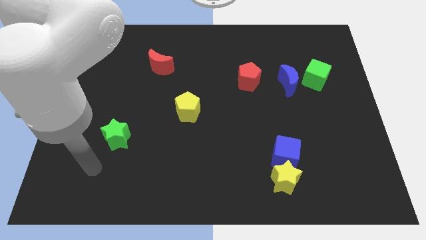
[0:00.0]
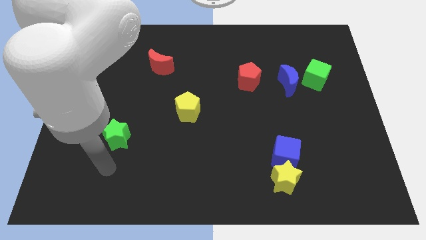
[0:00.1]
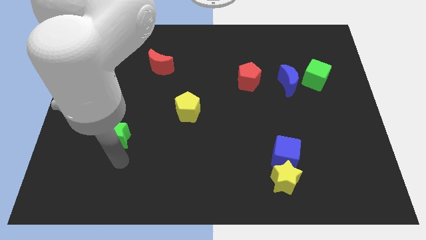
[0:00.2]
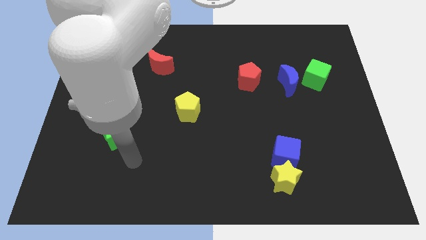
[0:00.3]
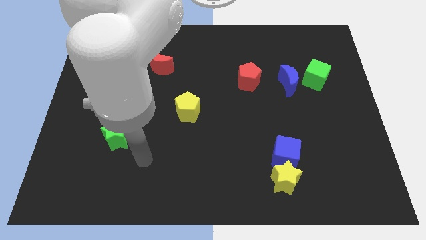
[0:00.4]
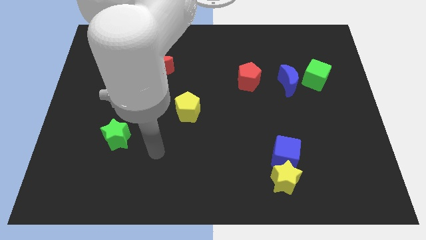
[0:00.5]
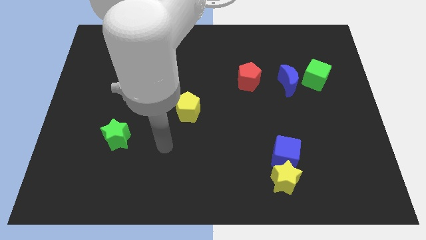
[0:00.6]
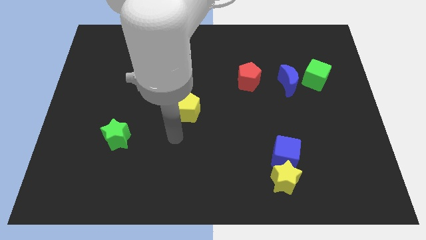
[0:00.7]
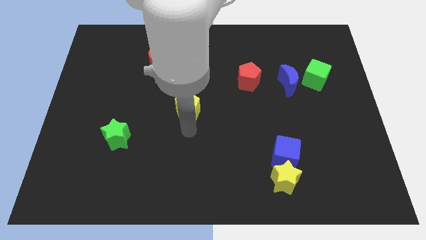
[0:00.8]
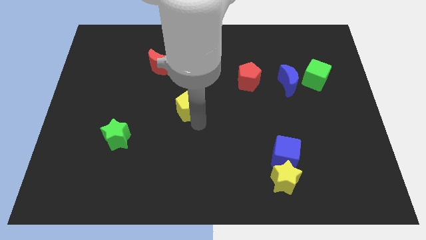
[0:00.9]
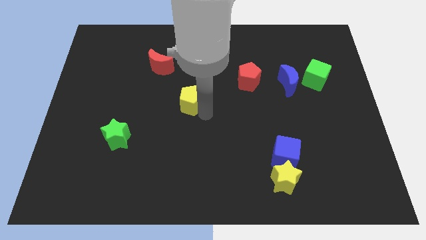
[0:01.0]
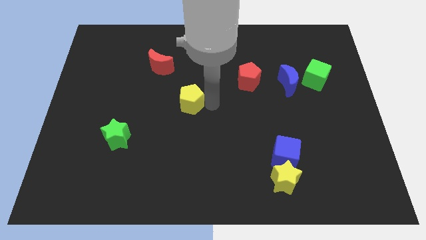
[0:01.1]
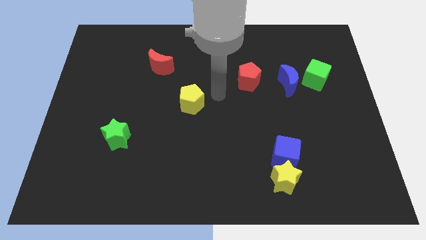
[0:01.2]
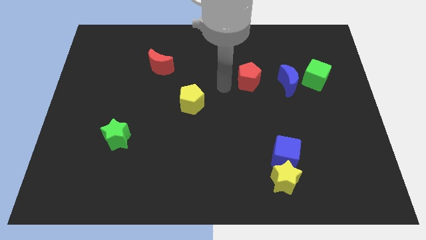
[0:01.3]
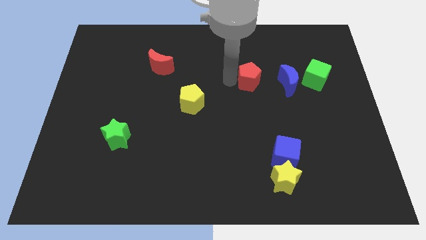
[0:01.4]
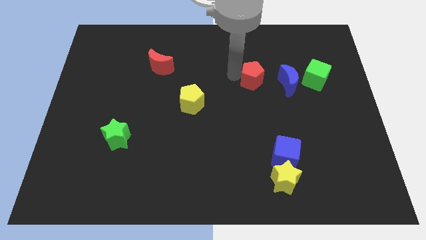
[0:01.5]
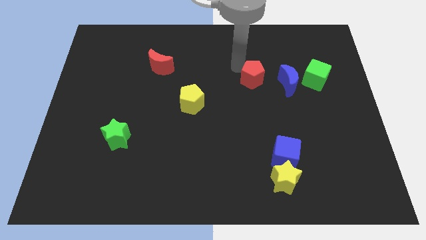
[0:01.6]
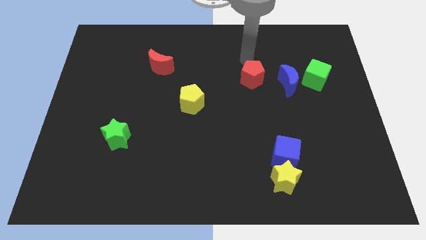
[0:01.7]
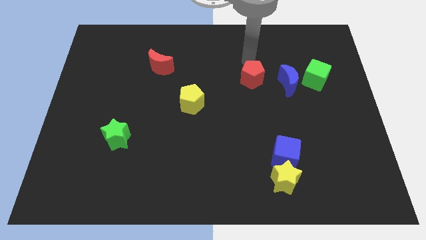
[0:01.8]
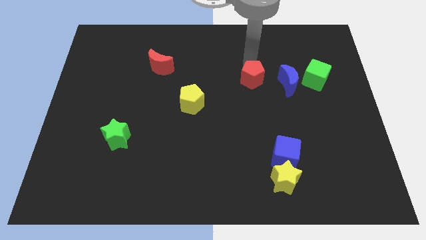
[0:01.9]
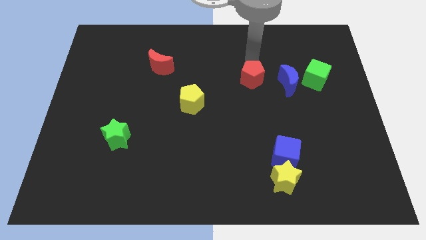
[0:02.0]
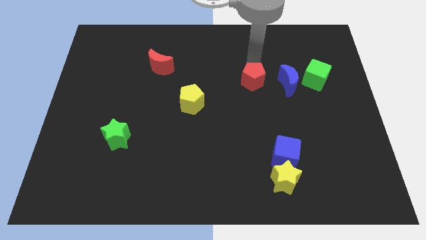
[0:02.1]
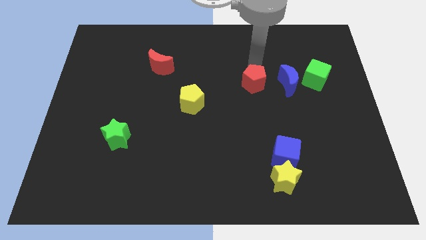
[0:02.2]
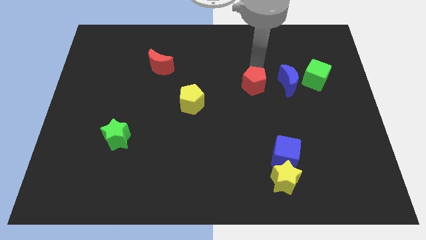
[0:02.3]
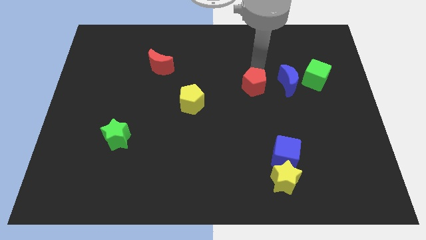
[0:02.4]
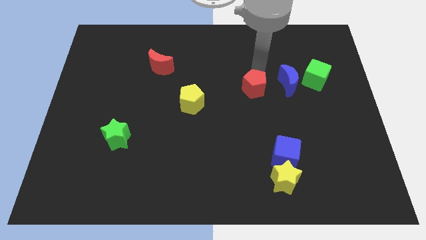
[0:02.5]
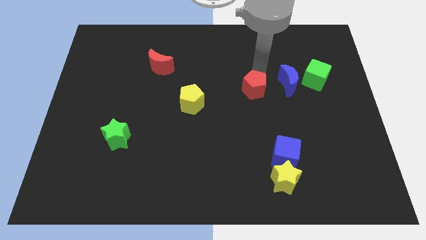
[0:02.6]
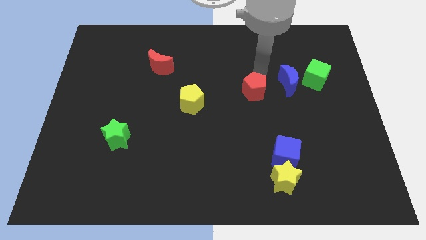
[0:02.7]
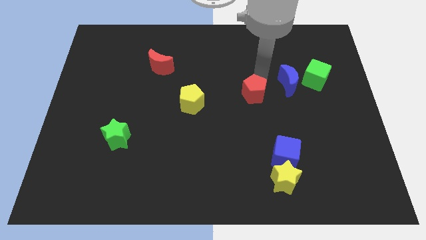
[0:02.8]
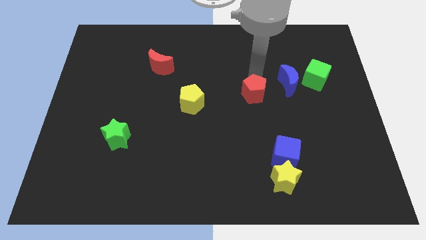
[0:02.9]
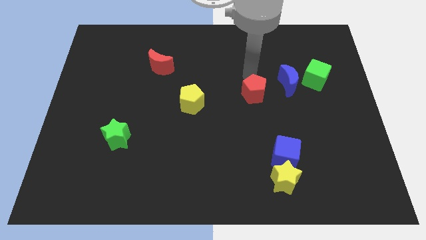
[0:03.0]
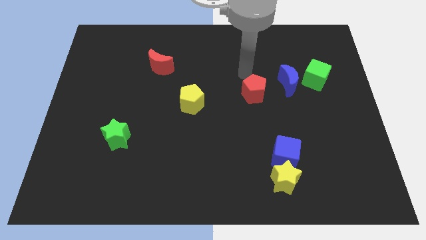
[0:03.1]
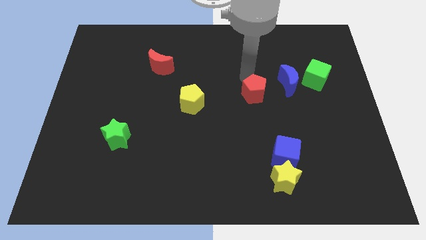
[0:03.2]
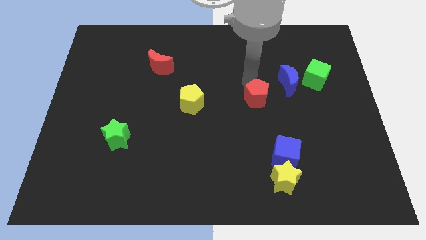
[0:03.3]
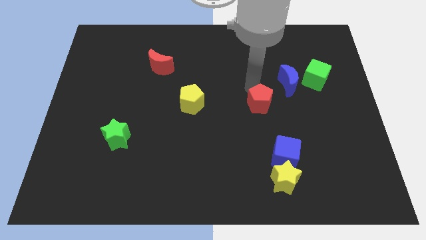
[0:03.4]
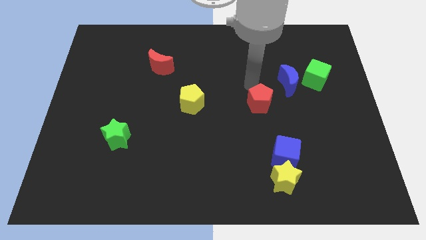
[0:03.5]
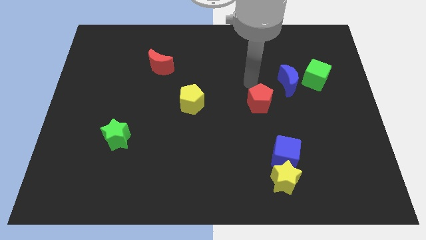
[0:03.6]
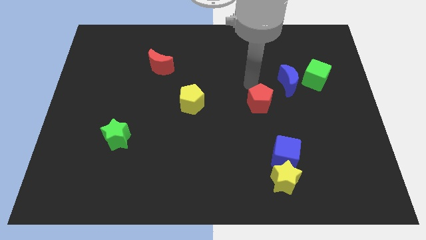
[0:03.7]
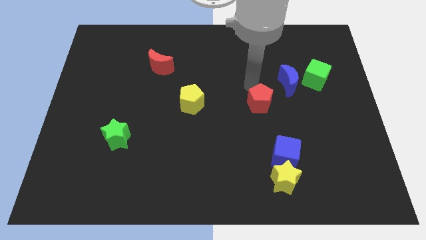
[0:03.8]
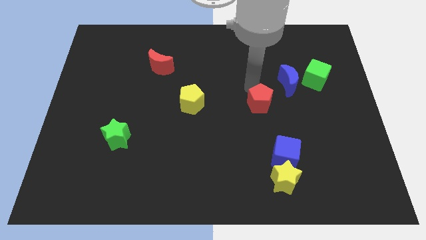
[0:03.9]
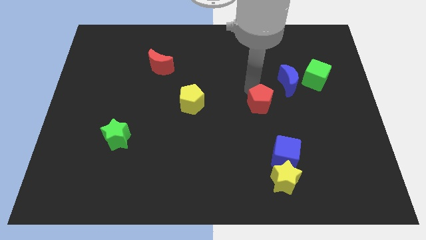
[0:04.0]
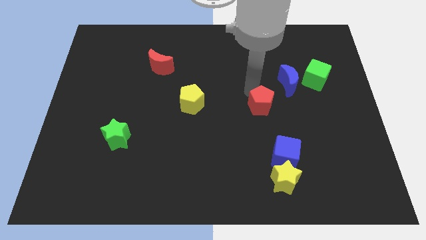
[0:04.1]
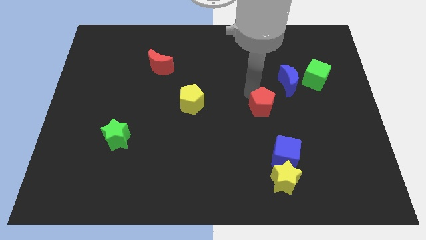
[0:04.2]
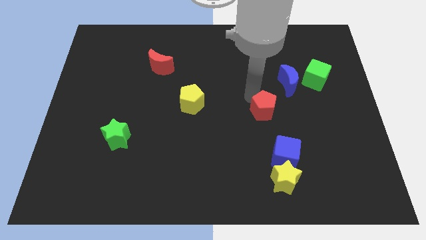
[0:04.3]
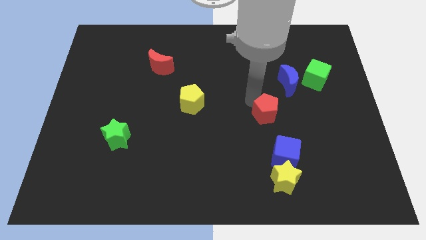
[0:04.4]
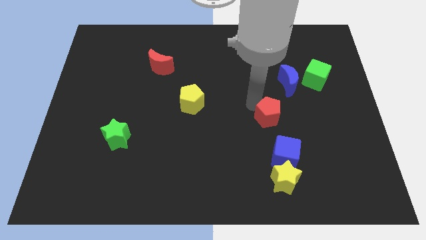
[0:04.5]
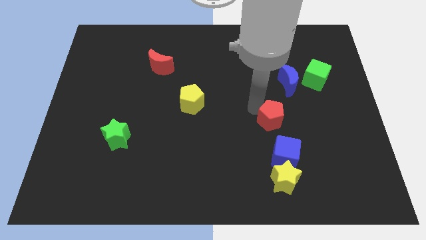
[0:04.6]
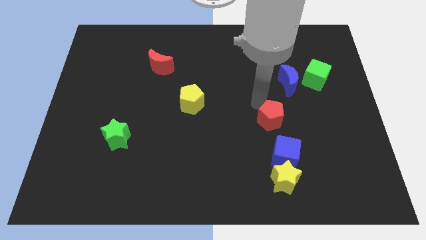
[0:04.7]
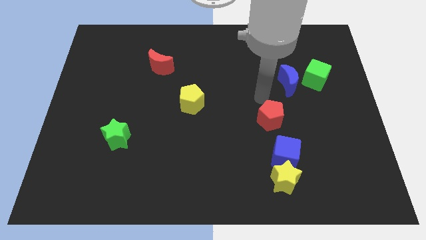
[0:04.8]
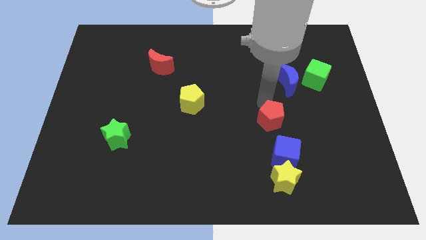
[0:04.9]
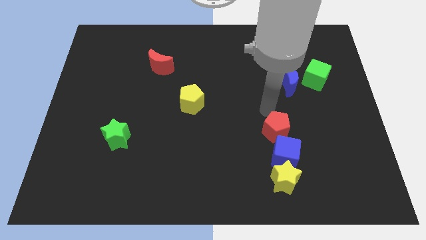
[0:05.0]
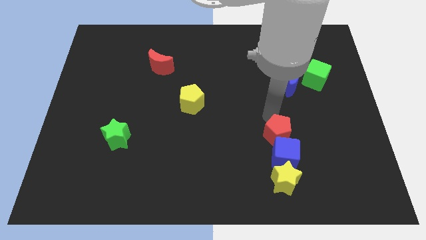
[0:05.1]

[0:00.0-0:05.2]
put the red pentagon to the blue cube
